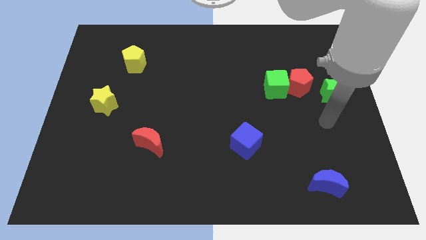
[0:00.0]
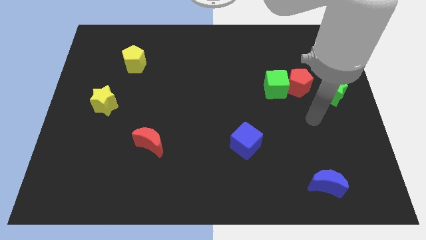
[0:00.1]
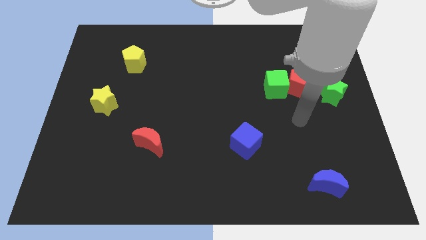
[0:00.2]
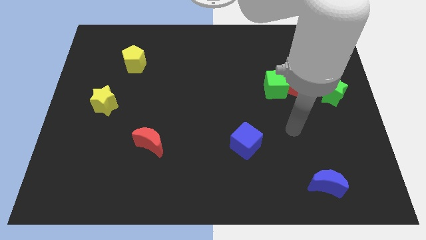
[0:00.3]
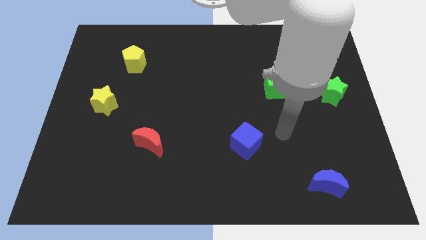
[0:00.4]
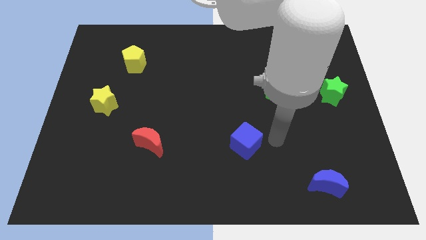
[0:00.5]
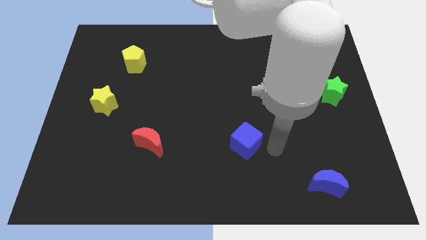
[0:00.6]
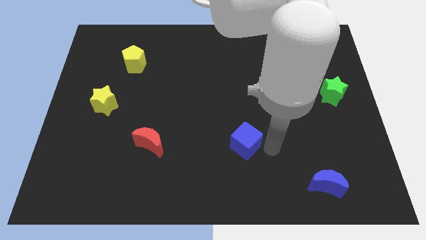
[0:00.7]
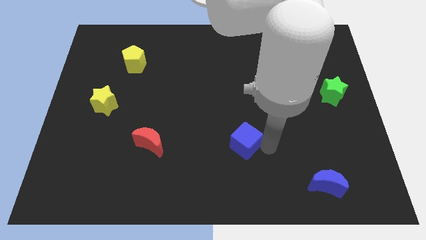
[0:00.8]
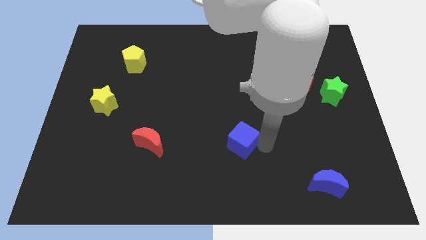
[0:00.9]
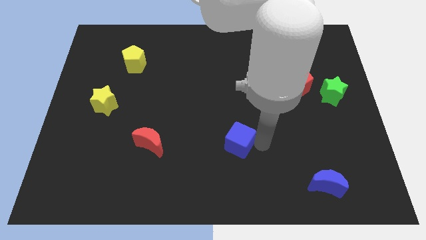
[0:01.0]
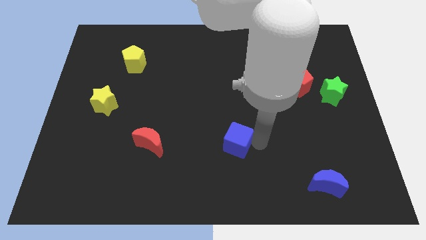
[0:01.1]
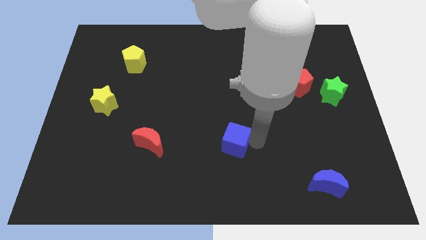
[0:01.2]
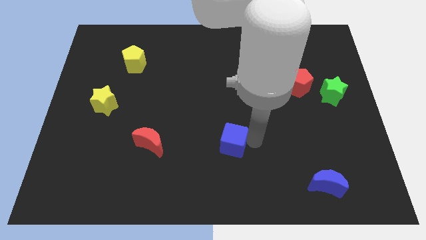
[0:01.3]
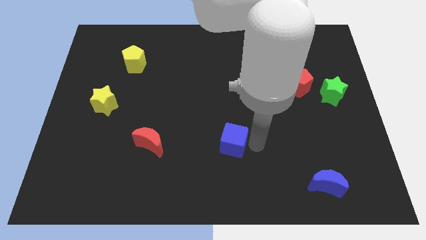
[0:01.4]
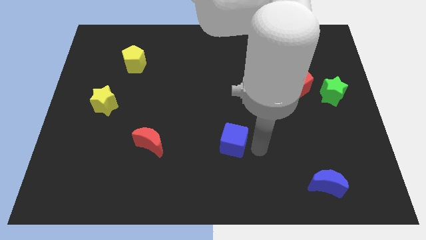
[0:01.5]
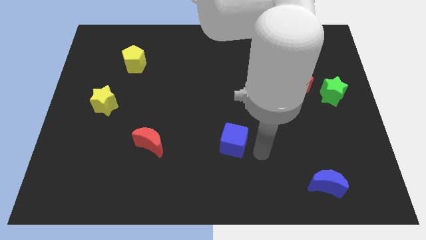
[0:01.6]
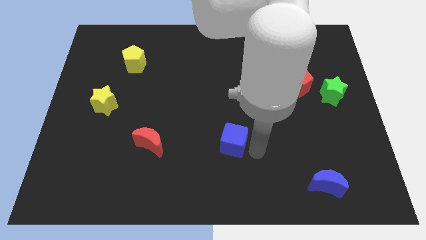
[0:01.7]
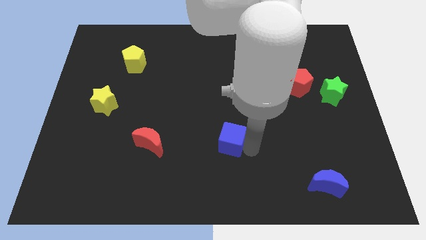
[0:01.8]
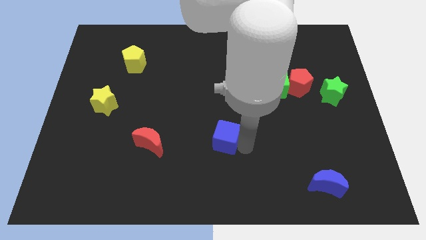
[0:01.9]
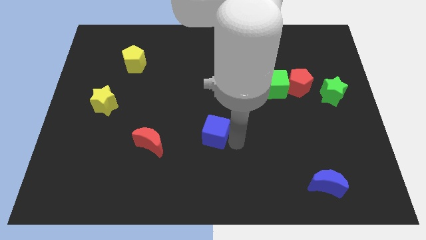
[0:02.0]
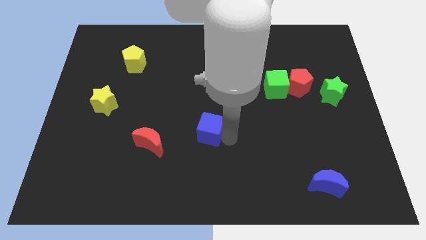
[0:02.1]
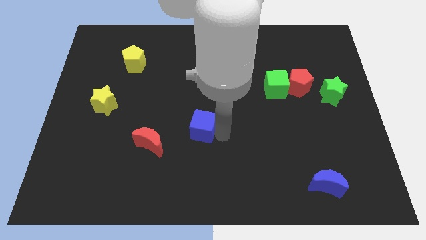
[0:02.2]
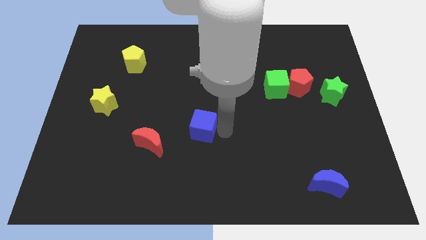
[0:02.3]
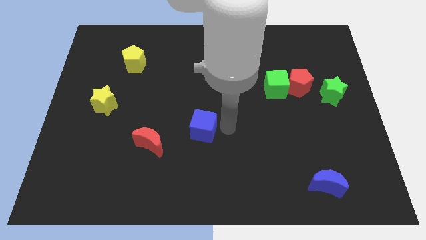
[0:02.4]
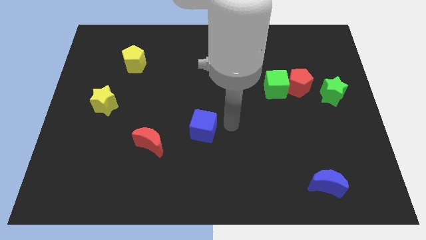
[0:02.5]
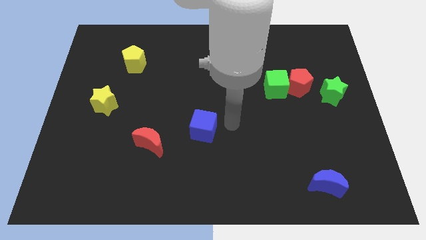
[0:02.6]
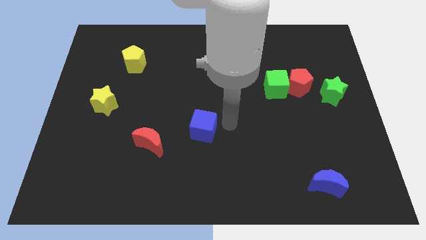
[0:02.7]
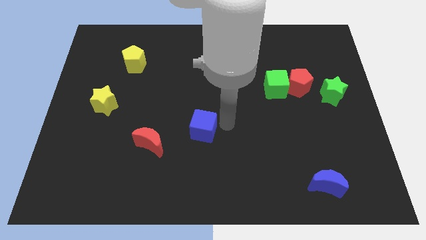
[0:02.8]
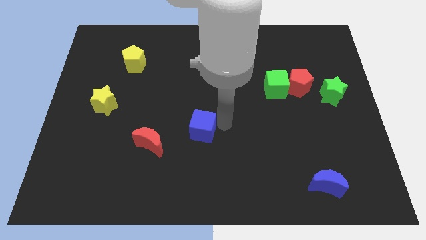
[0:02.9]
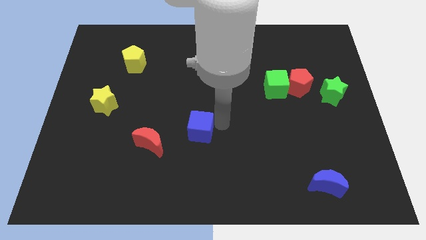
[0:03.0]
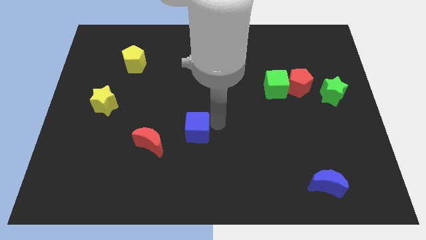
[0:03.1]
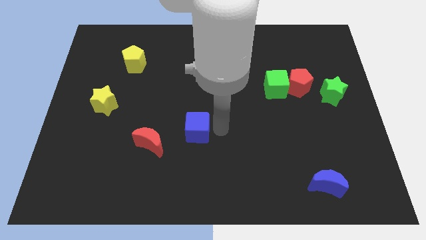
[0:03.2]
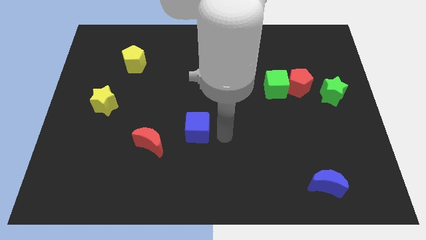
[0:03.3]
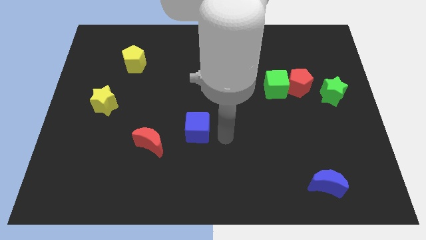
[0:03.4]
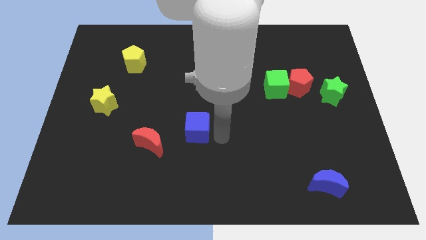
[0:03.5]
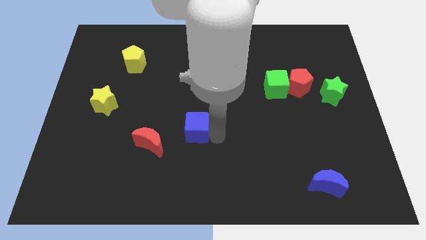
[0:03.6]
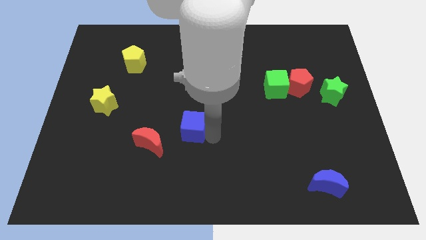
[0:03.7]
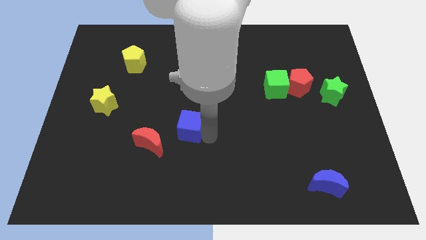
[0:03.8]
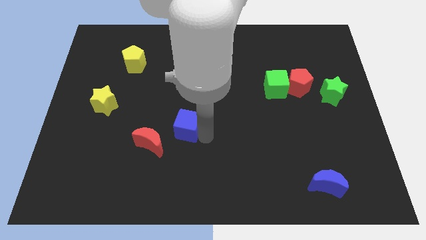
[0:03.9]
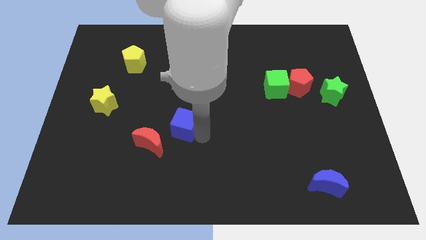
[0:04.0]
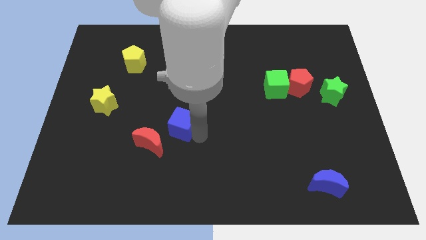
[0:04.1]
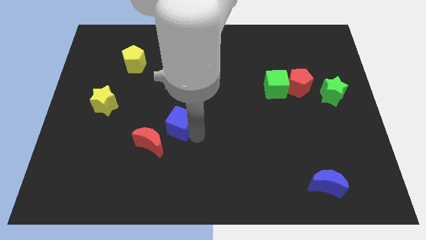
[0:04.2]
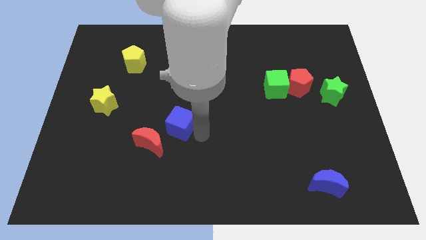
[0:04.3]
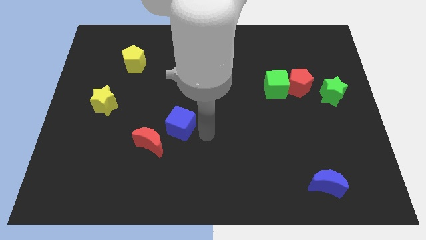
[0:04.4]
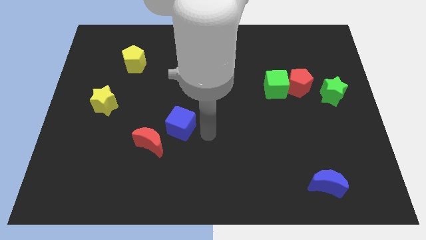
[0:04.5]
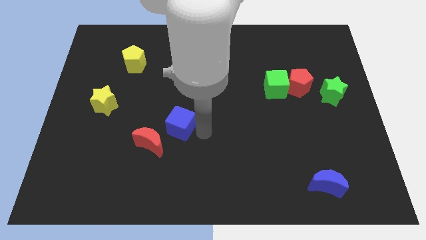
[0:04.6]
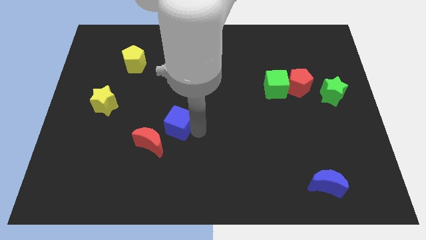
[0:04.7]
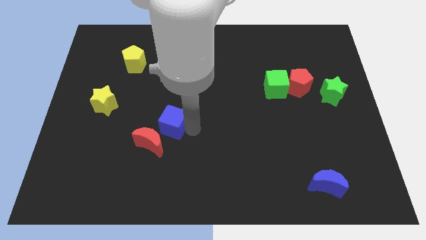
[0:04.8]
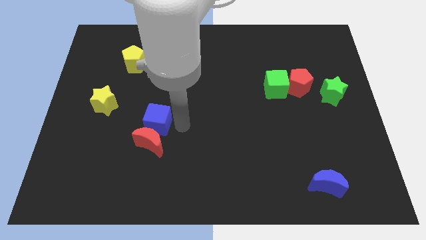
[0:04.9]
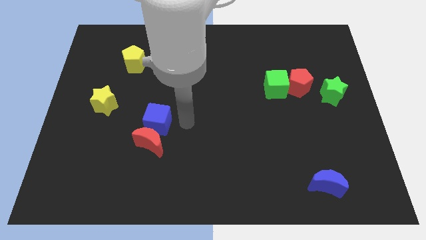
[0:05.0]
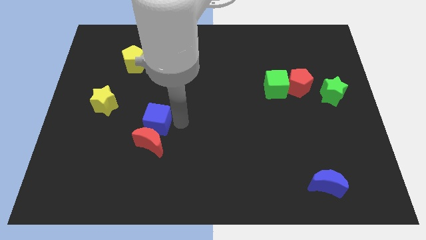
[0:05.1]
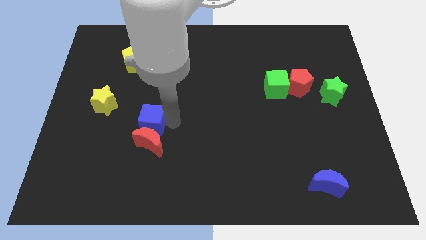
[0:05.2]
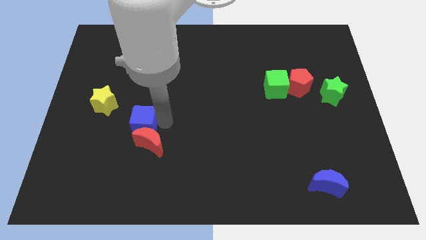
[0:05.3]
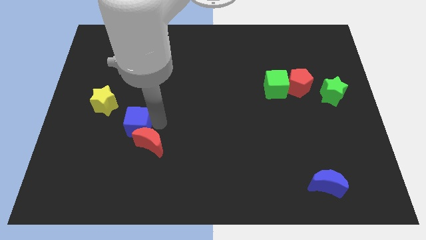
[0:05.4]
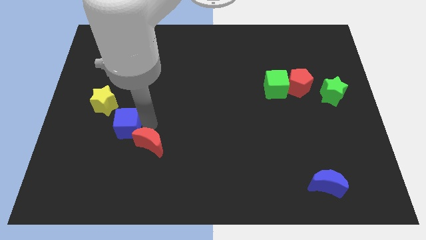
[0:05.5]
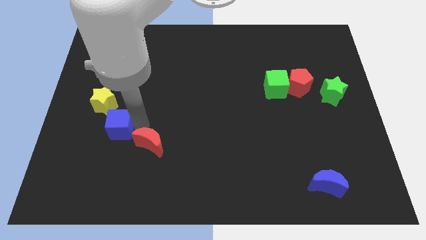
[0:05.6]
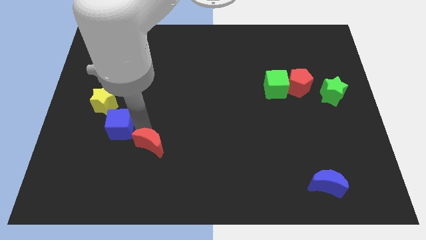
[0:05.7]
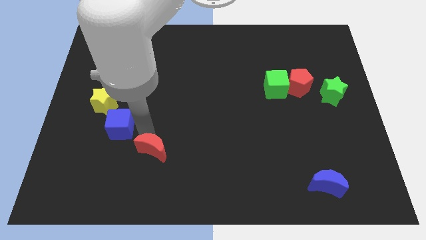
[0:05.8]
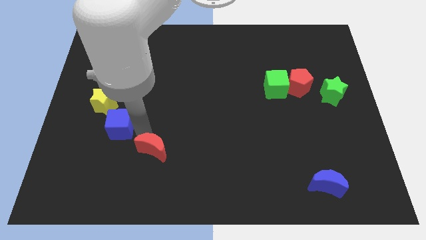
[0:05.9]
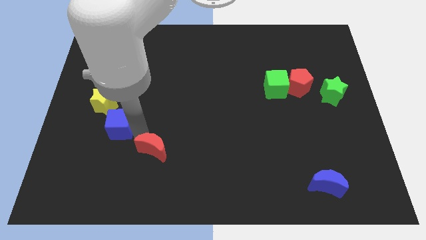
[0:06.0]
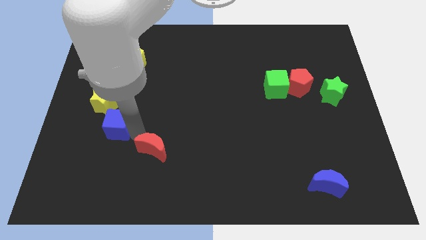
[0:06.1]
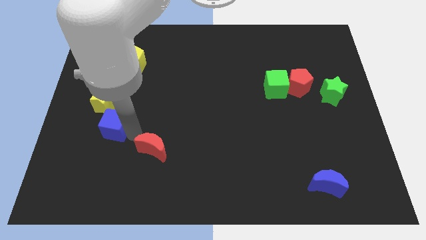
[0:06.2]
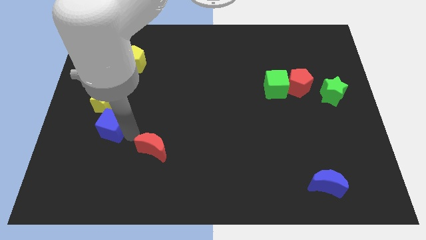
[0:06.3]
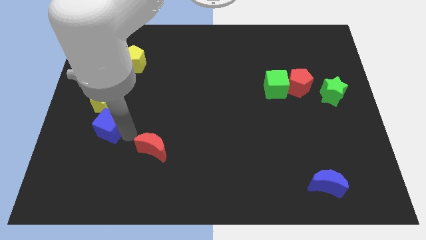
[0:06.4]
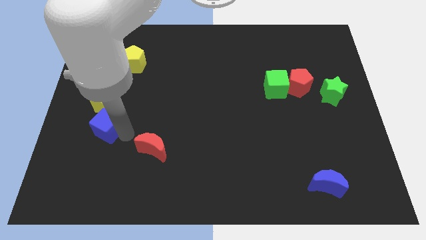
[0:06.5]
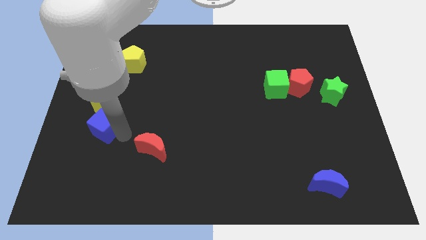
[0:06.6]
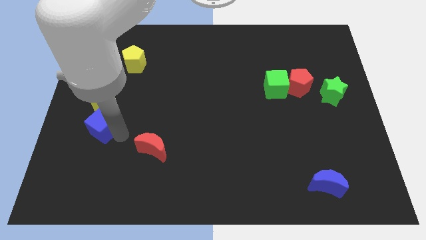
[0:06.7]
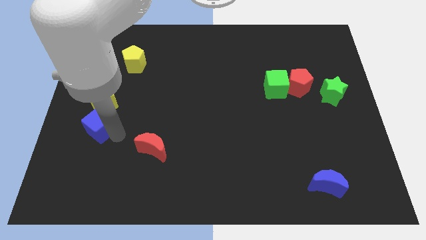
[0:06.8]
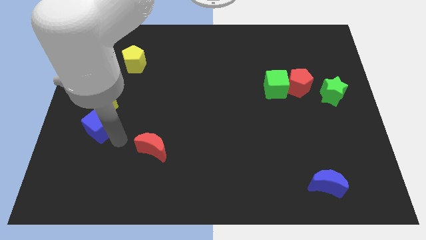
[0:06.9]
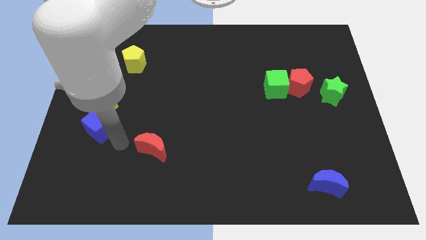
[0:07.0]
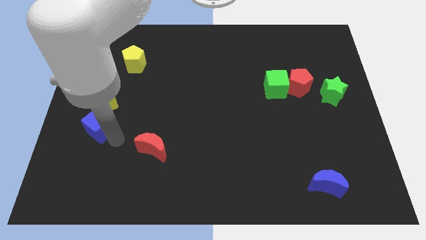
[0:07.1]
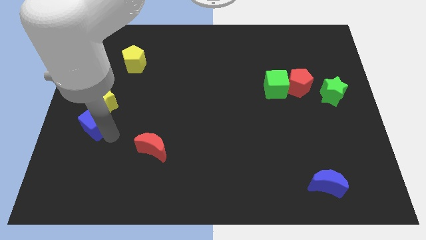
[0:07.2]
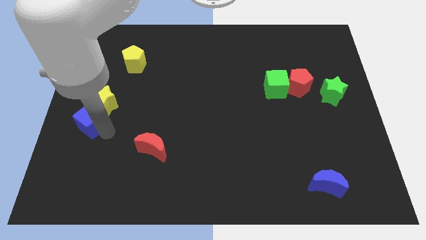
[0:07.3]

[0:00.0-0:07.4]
push the blue cube to the center left
